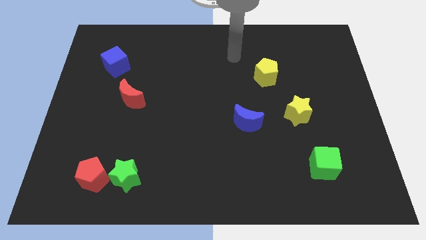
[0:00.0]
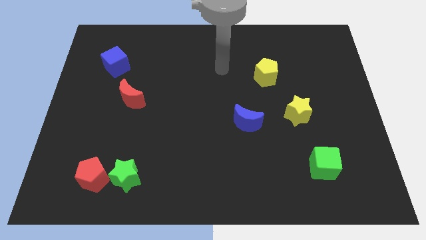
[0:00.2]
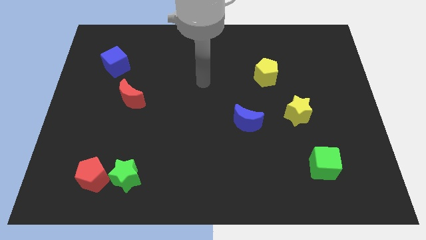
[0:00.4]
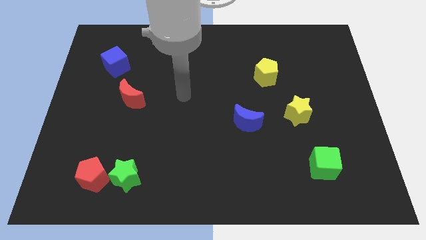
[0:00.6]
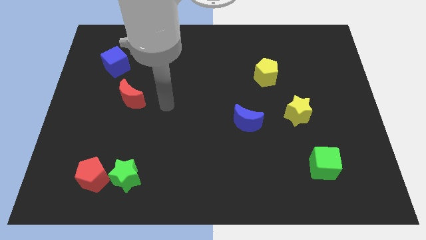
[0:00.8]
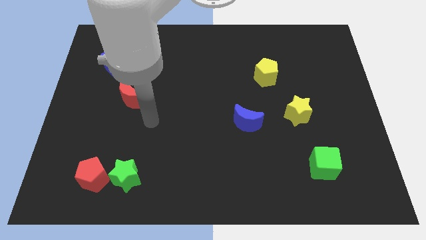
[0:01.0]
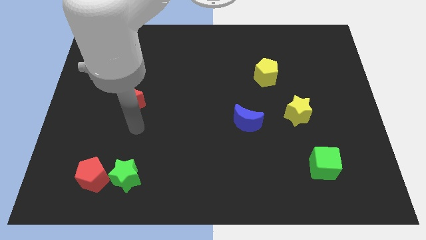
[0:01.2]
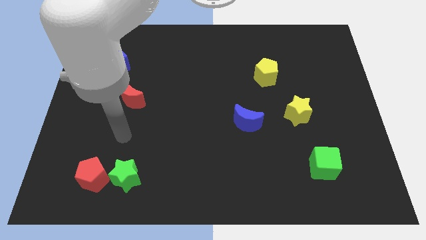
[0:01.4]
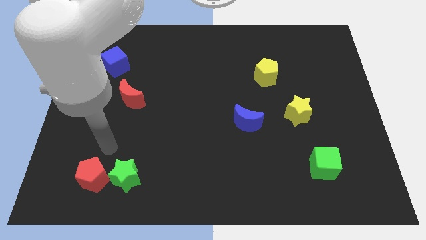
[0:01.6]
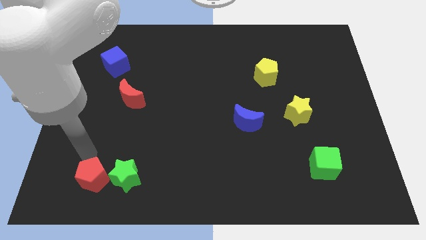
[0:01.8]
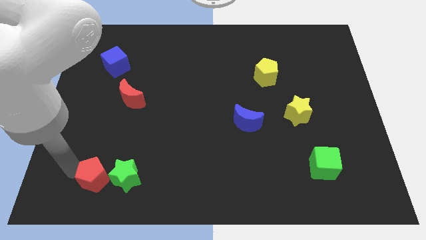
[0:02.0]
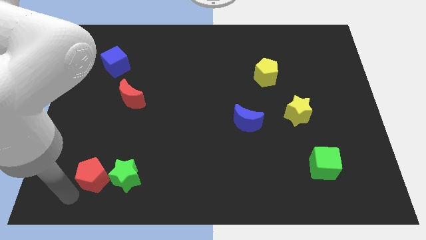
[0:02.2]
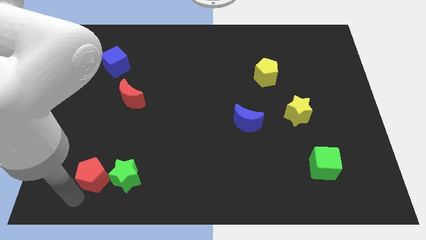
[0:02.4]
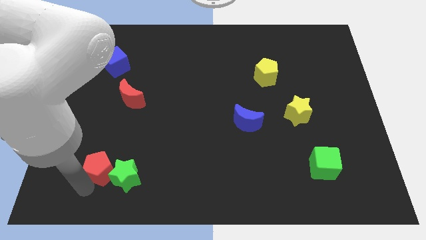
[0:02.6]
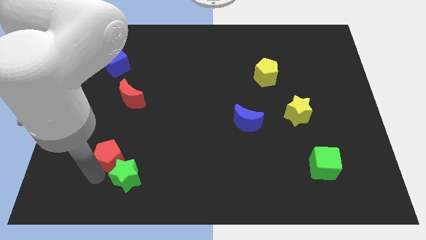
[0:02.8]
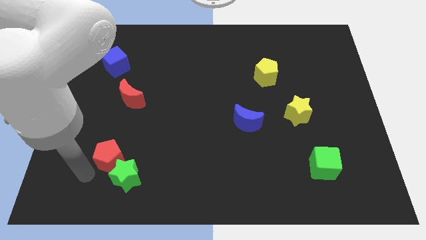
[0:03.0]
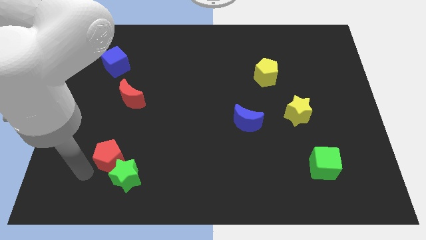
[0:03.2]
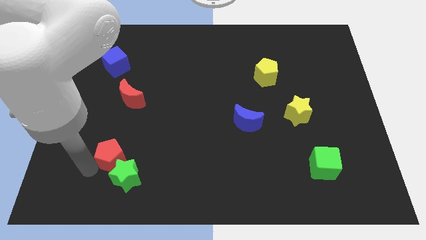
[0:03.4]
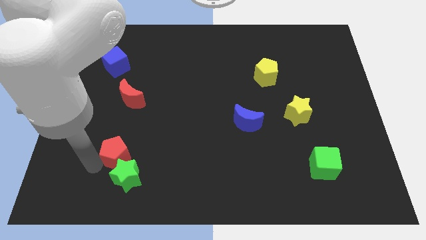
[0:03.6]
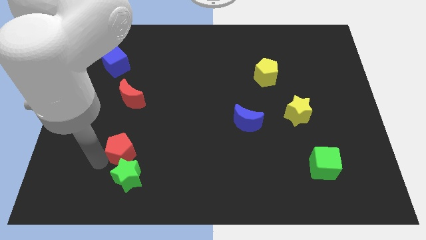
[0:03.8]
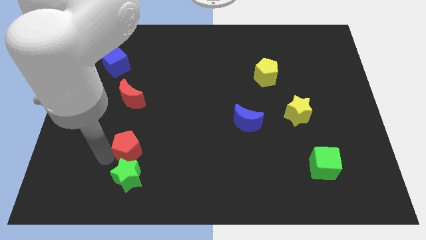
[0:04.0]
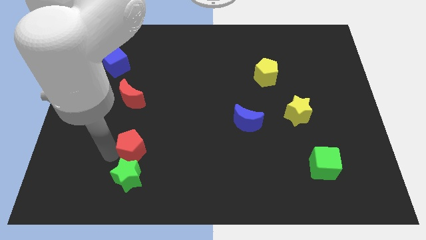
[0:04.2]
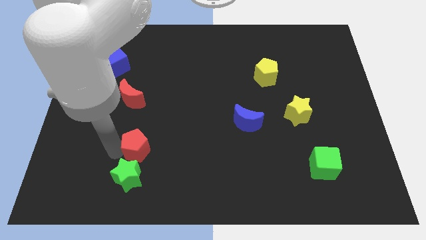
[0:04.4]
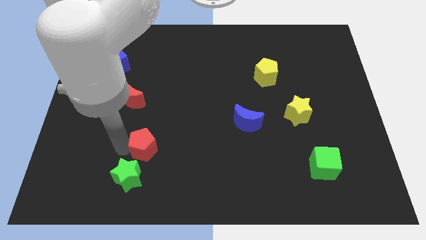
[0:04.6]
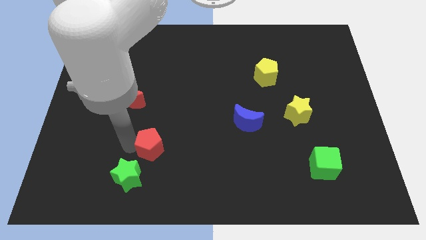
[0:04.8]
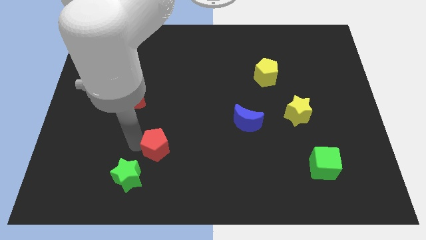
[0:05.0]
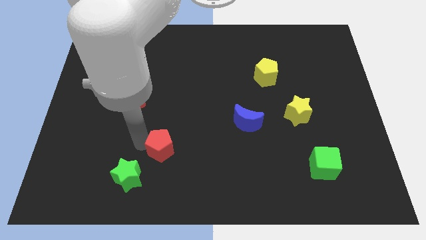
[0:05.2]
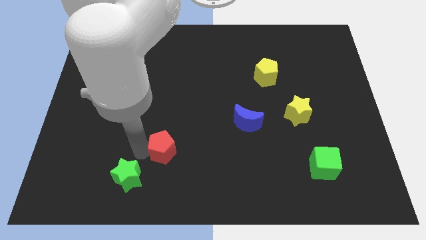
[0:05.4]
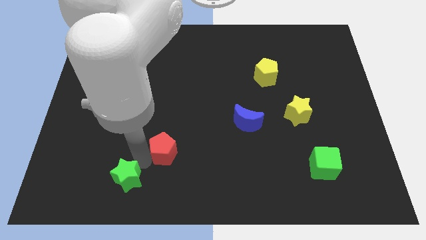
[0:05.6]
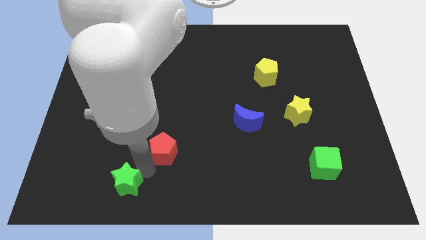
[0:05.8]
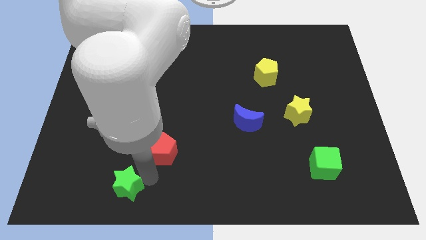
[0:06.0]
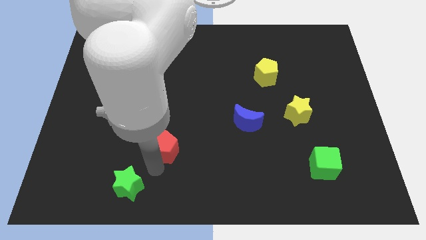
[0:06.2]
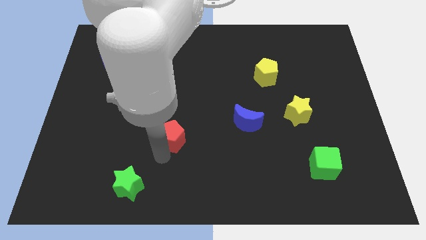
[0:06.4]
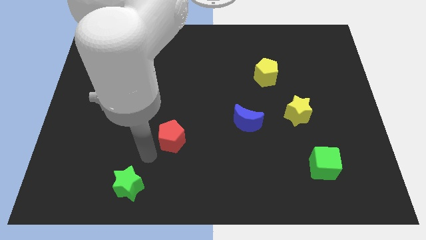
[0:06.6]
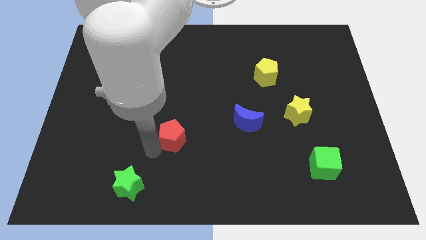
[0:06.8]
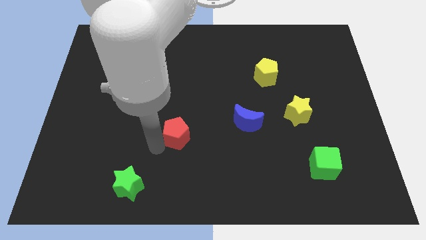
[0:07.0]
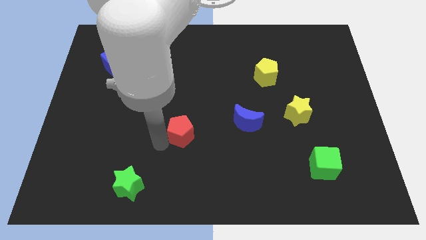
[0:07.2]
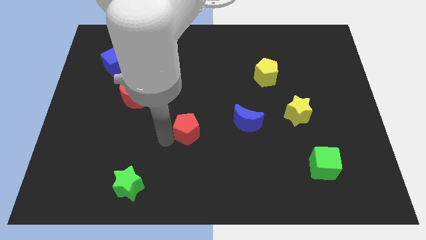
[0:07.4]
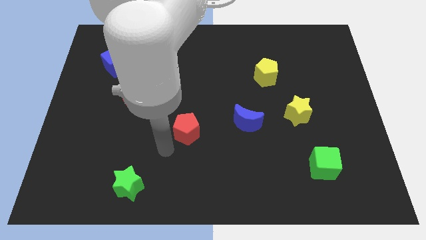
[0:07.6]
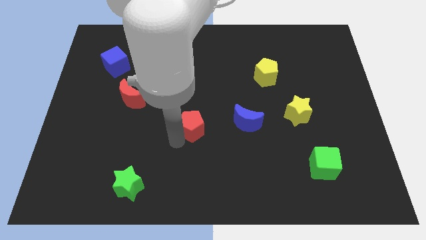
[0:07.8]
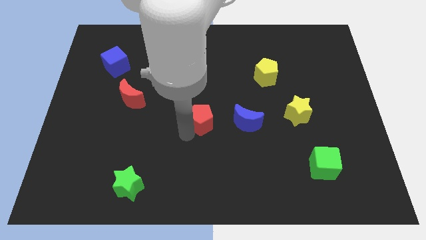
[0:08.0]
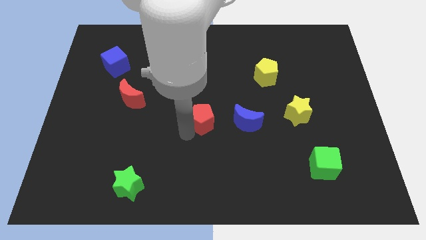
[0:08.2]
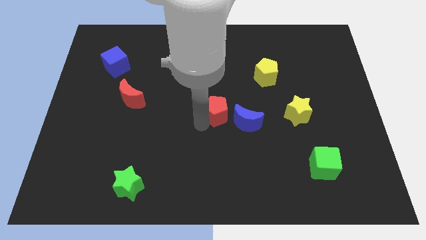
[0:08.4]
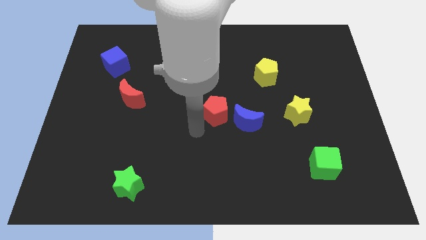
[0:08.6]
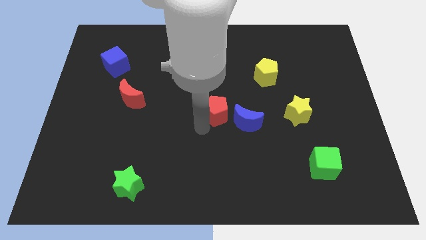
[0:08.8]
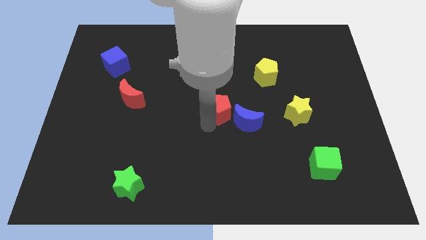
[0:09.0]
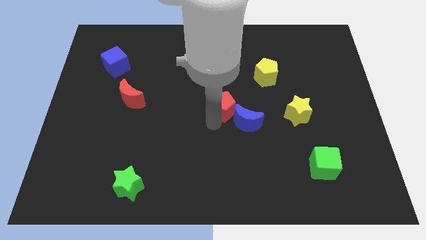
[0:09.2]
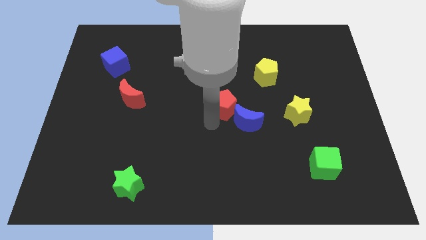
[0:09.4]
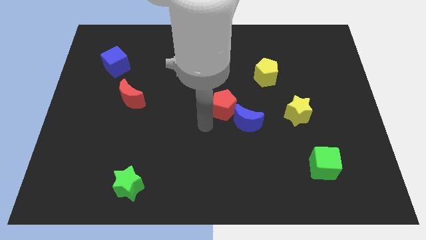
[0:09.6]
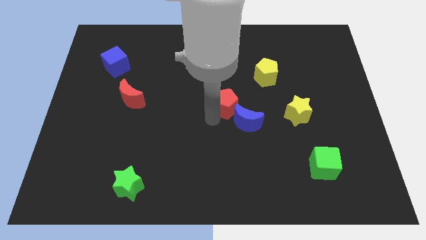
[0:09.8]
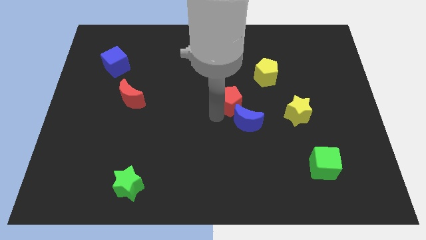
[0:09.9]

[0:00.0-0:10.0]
put the red pentagon to the bottom left side of the yellow pentagon

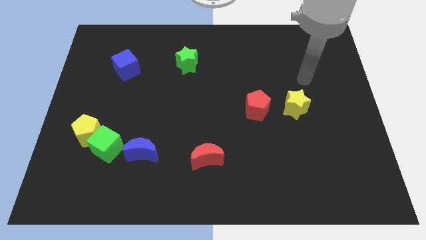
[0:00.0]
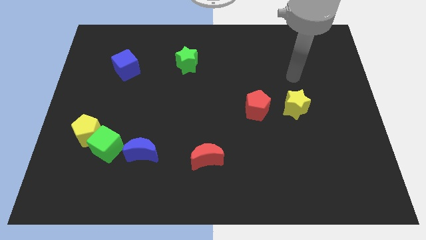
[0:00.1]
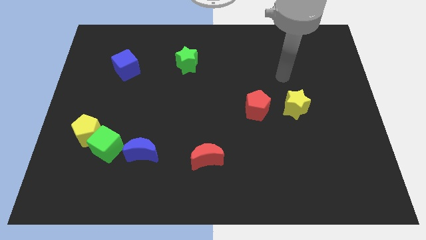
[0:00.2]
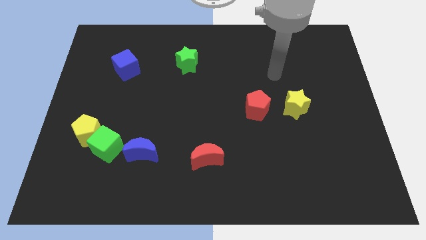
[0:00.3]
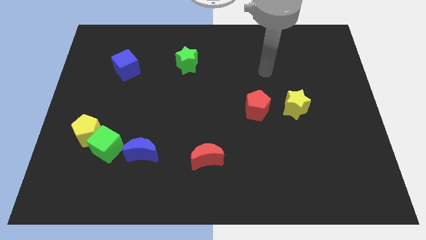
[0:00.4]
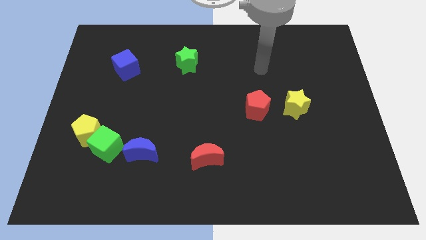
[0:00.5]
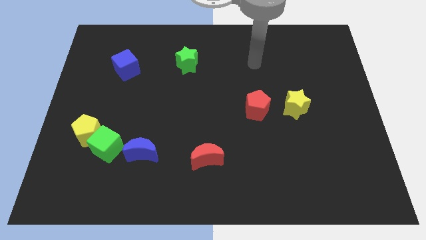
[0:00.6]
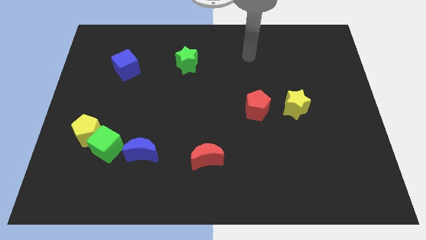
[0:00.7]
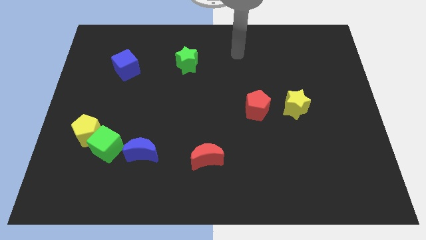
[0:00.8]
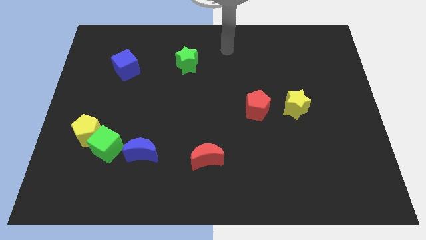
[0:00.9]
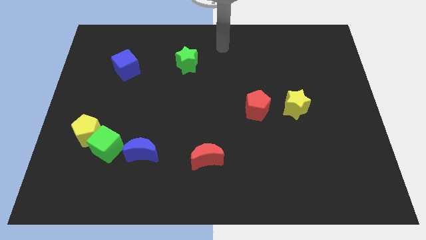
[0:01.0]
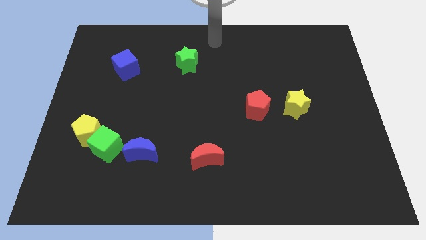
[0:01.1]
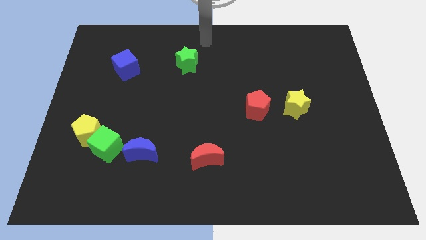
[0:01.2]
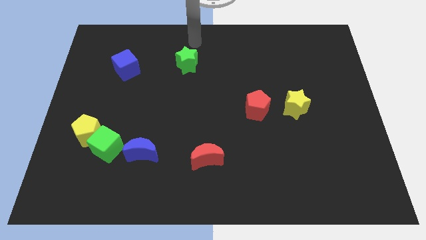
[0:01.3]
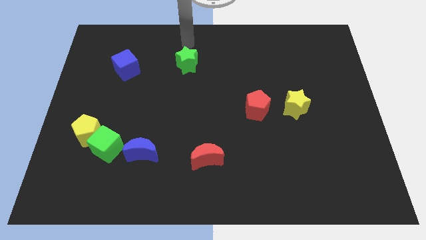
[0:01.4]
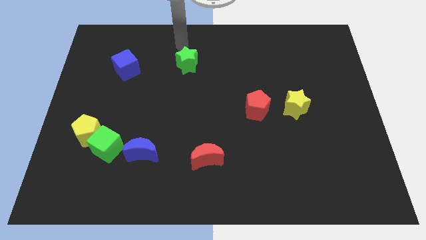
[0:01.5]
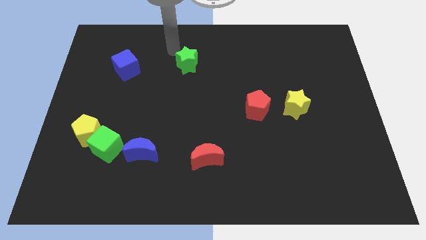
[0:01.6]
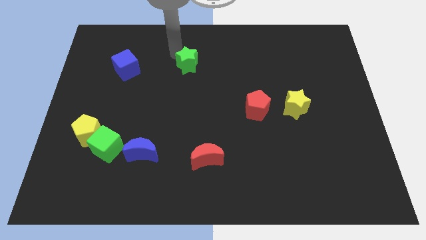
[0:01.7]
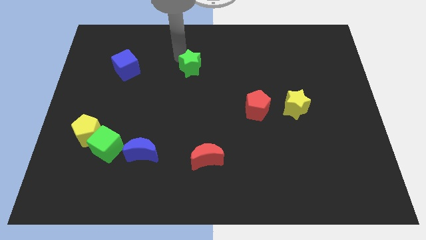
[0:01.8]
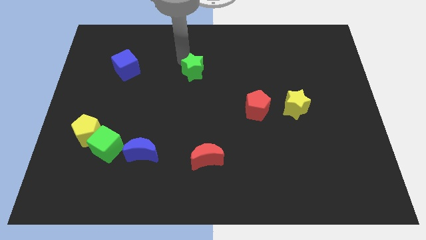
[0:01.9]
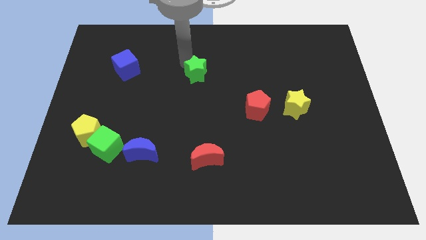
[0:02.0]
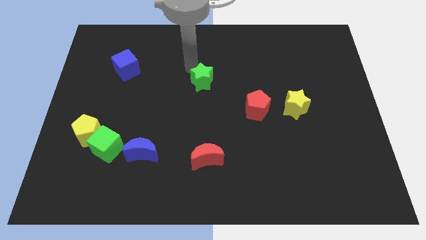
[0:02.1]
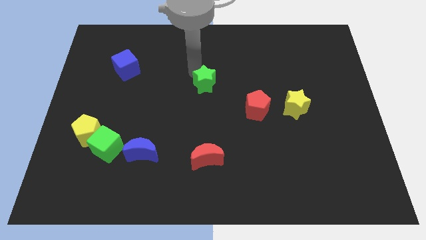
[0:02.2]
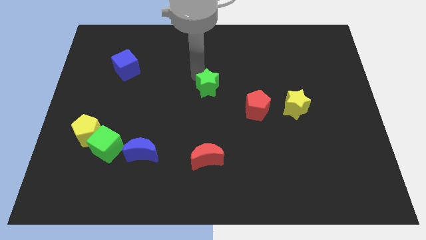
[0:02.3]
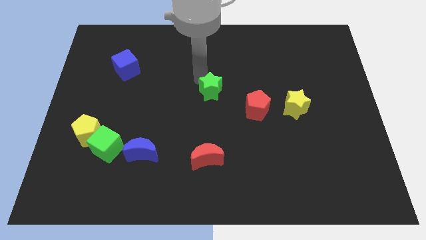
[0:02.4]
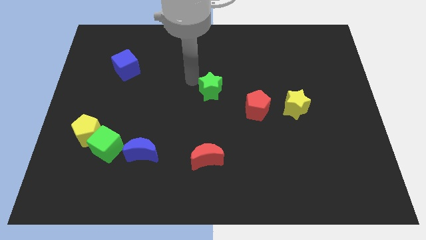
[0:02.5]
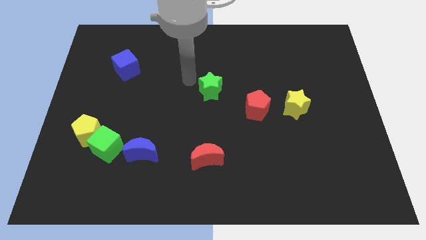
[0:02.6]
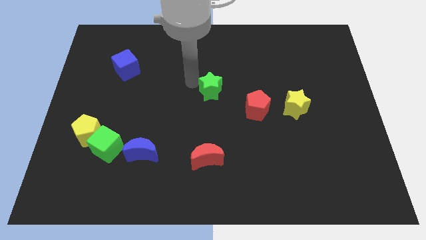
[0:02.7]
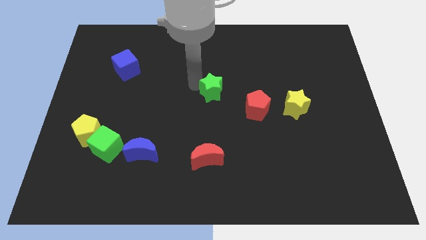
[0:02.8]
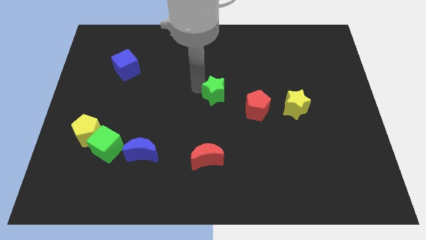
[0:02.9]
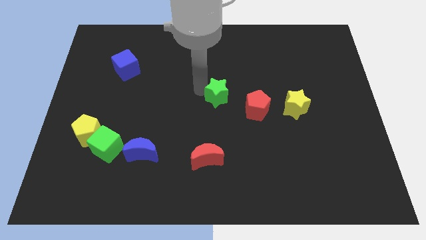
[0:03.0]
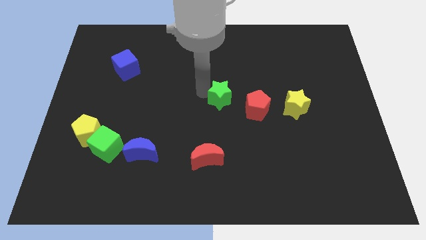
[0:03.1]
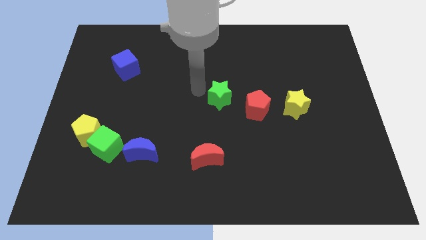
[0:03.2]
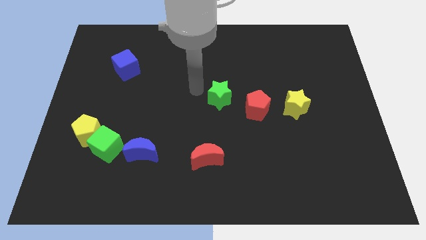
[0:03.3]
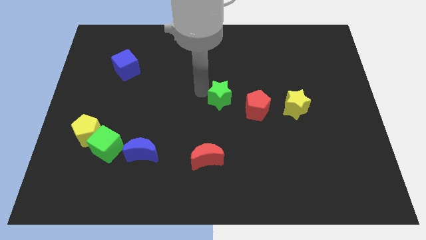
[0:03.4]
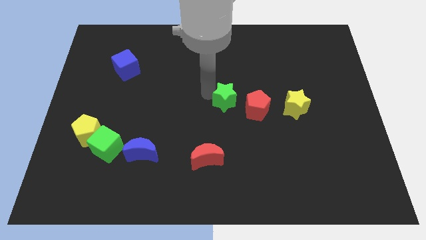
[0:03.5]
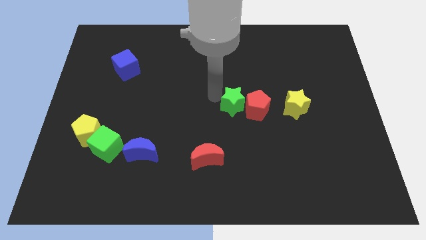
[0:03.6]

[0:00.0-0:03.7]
slide the green star to the left of the yellow star
